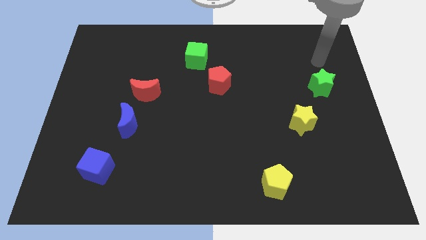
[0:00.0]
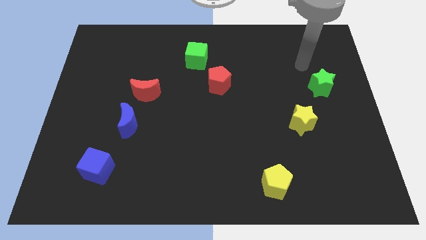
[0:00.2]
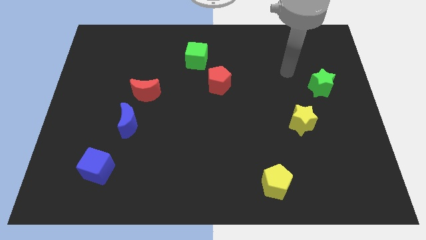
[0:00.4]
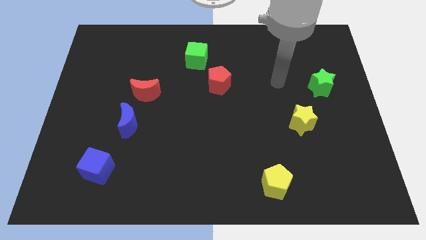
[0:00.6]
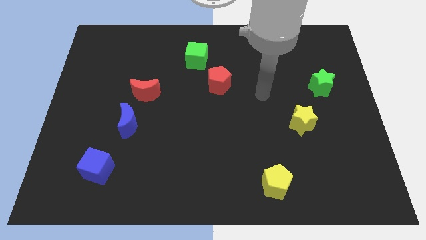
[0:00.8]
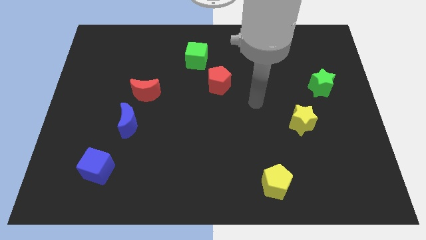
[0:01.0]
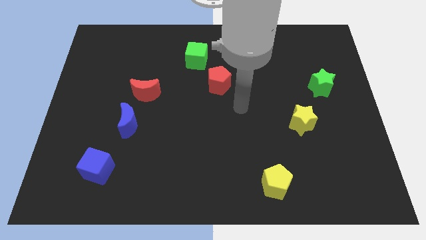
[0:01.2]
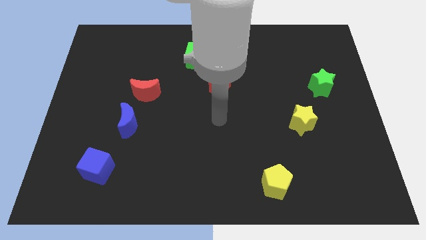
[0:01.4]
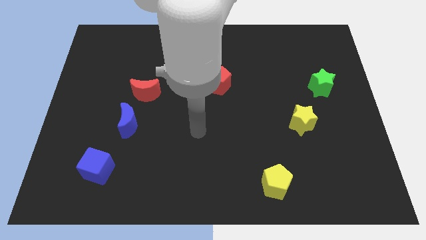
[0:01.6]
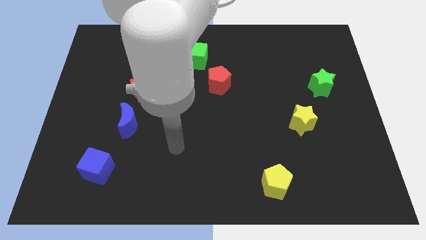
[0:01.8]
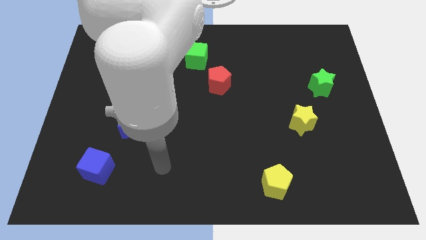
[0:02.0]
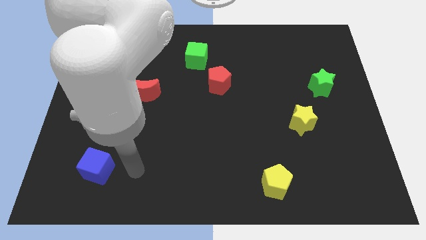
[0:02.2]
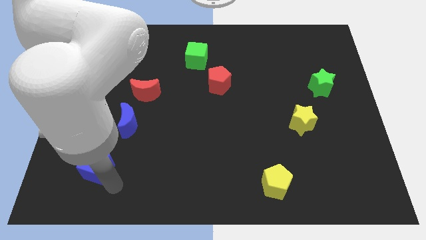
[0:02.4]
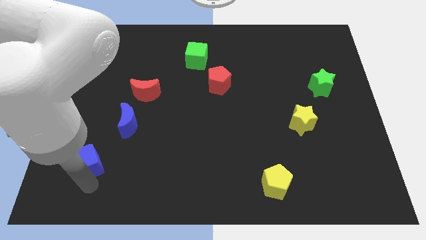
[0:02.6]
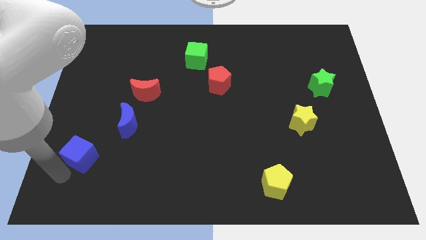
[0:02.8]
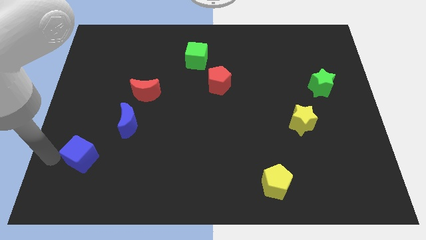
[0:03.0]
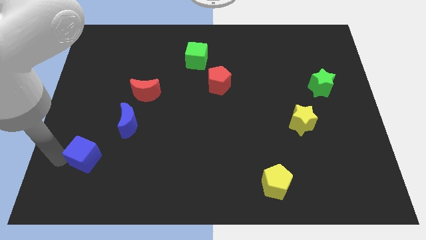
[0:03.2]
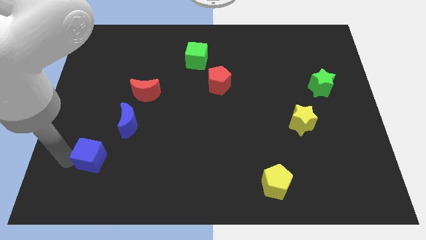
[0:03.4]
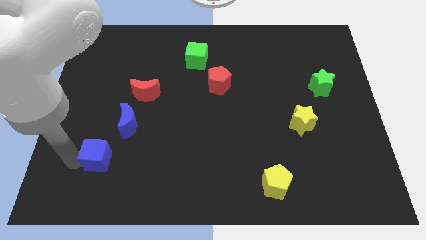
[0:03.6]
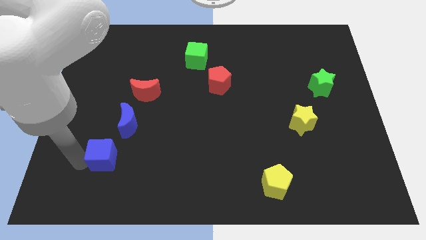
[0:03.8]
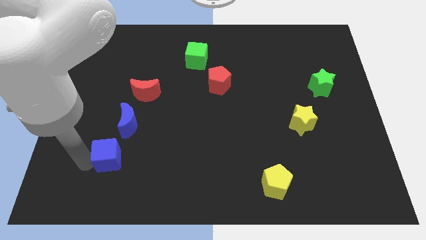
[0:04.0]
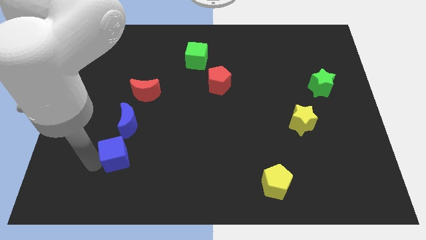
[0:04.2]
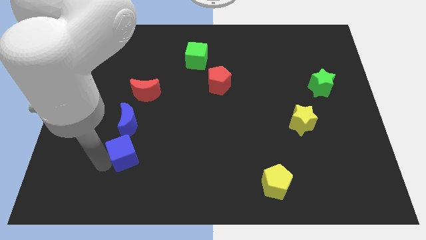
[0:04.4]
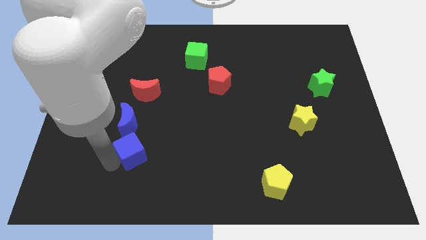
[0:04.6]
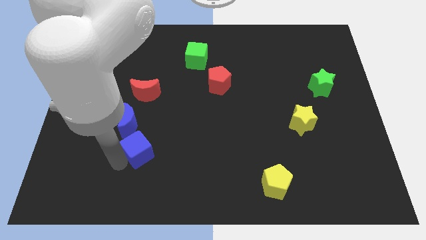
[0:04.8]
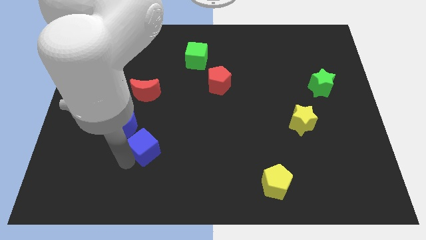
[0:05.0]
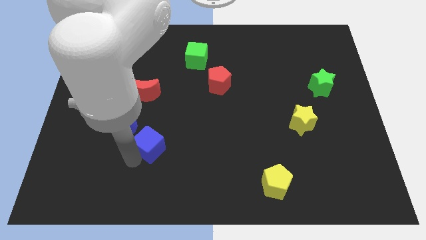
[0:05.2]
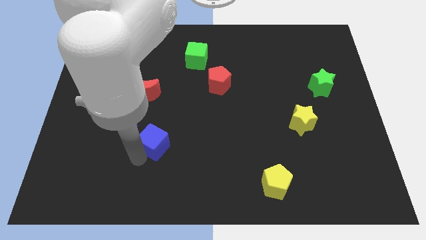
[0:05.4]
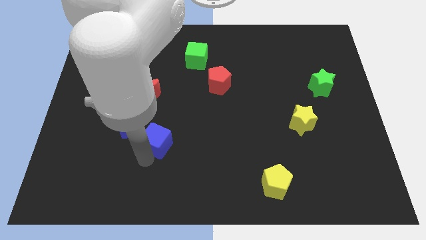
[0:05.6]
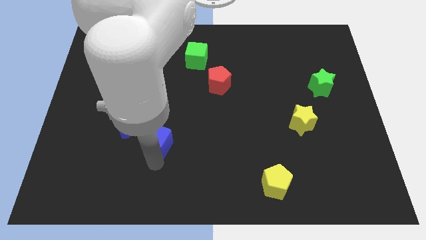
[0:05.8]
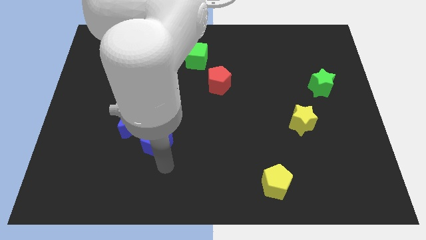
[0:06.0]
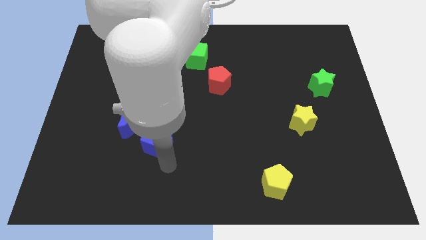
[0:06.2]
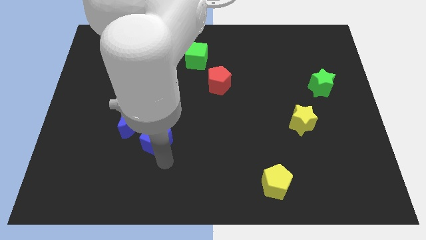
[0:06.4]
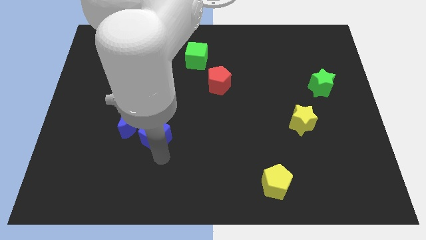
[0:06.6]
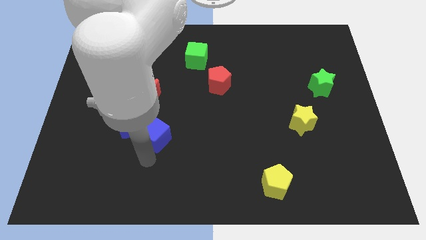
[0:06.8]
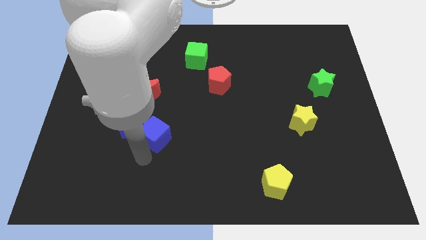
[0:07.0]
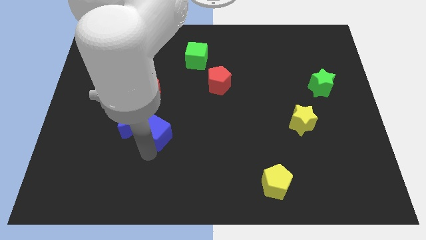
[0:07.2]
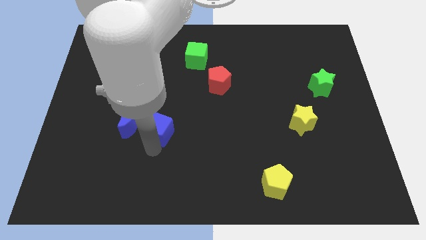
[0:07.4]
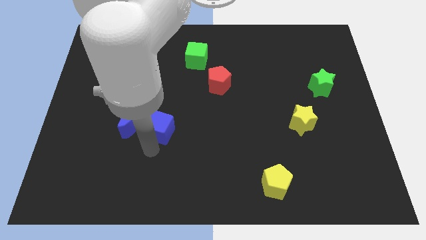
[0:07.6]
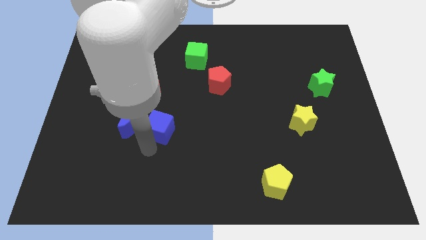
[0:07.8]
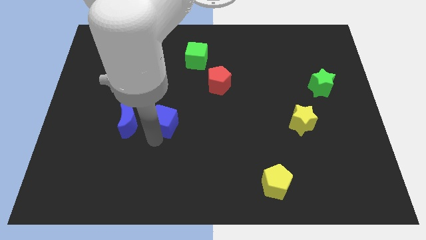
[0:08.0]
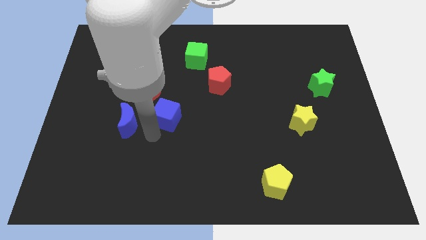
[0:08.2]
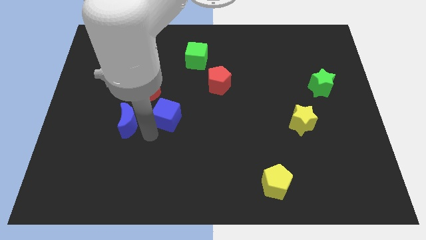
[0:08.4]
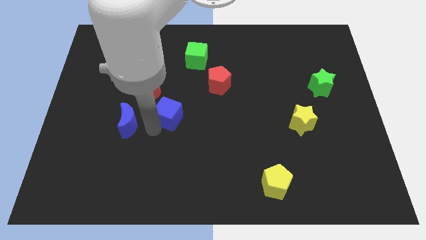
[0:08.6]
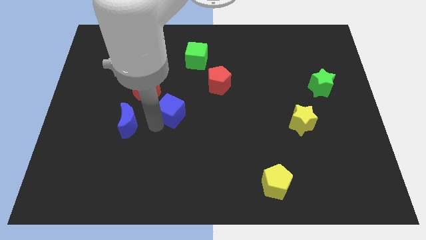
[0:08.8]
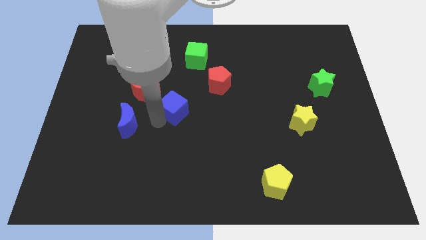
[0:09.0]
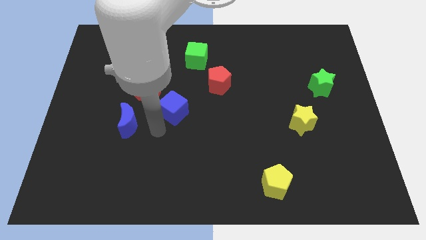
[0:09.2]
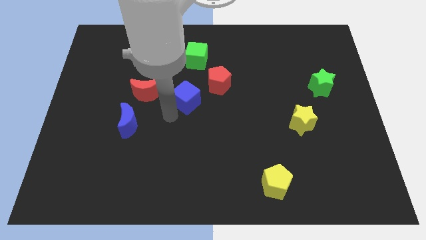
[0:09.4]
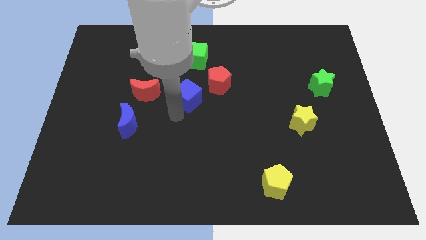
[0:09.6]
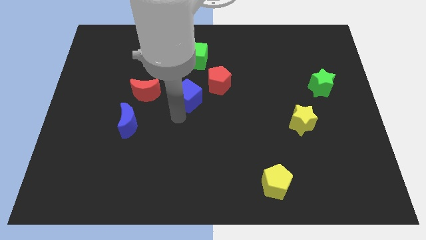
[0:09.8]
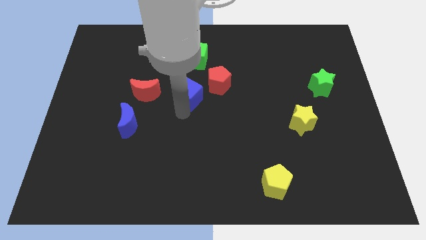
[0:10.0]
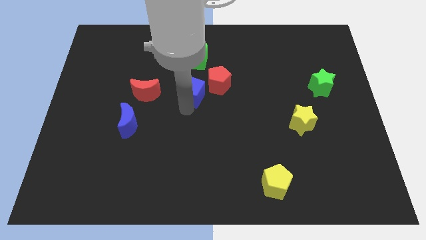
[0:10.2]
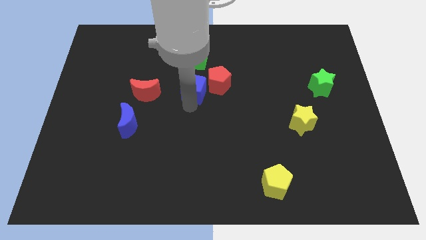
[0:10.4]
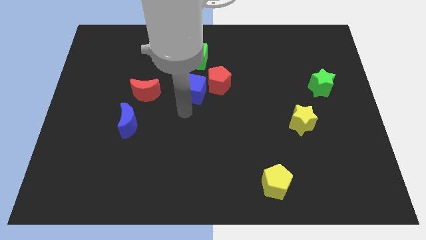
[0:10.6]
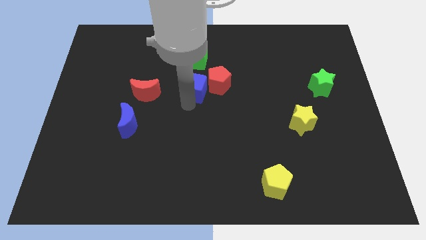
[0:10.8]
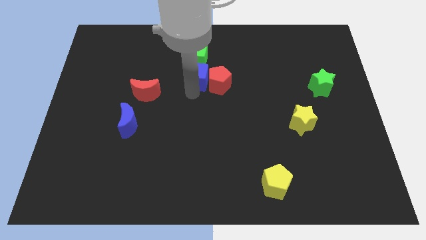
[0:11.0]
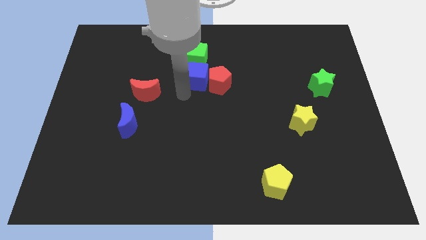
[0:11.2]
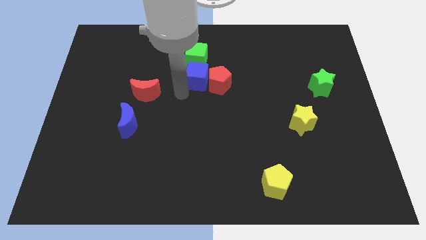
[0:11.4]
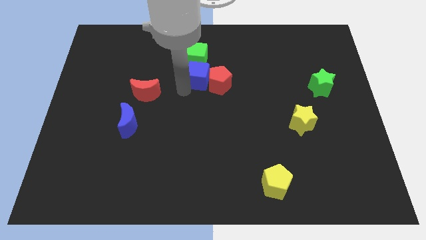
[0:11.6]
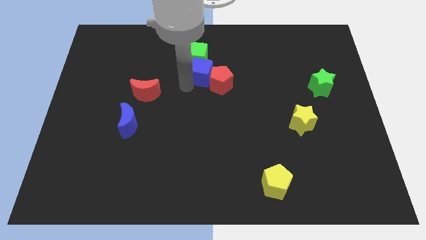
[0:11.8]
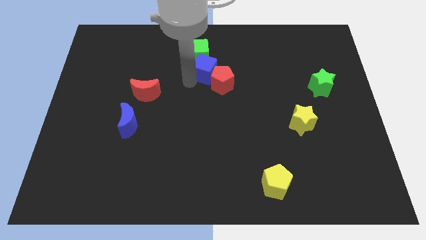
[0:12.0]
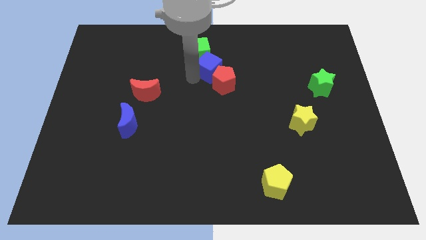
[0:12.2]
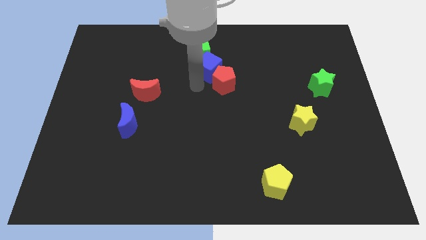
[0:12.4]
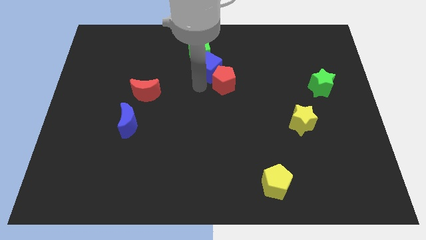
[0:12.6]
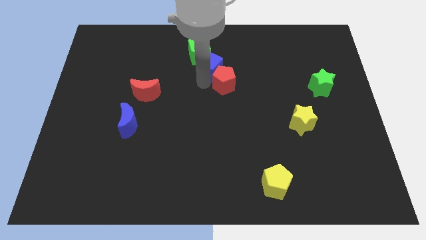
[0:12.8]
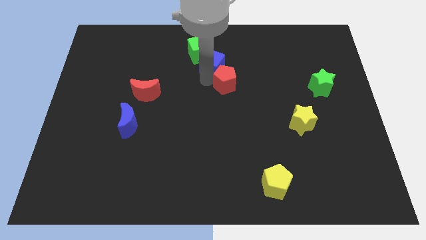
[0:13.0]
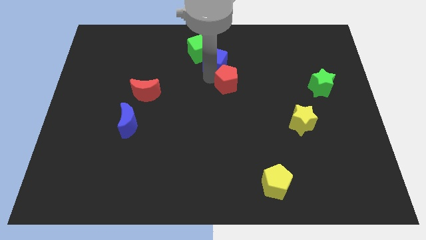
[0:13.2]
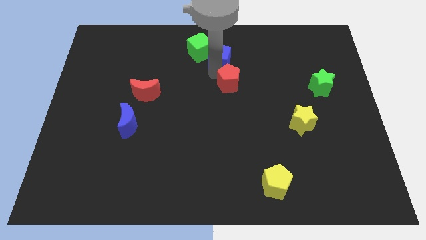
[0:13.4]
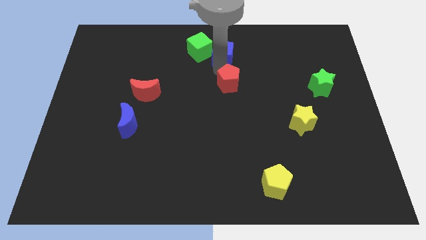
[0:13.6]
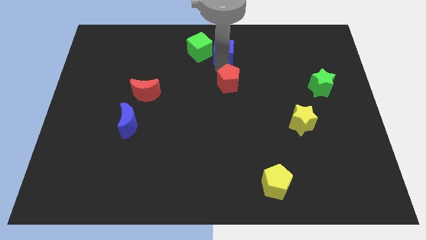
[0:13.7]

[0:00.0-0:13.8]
push the blue cube to the top side
